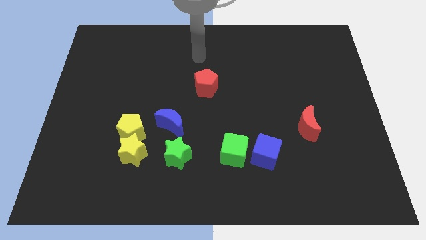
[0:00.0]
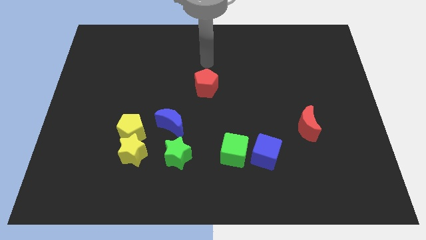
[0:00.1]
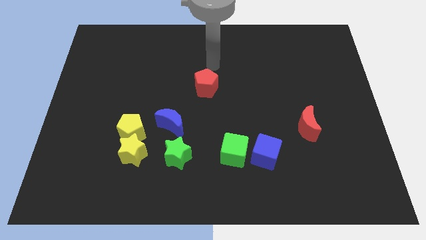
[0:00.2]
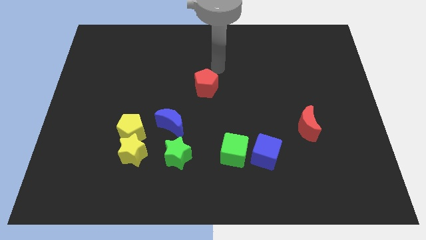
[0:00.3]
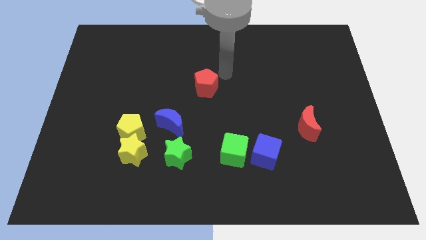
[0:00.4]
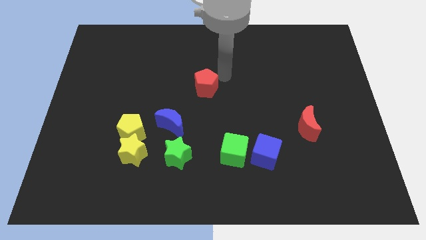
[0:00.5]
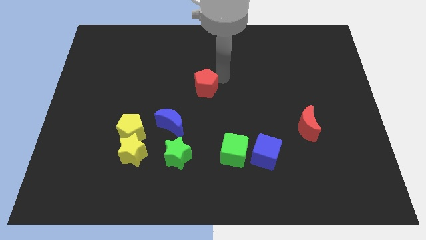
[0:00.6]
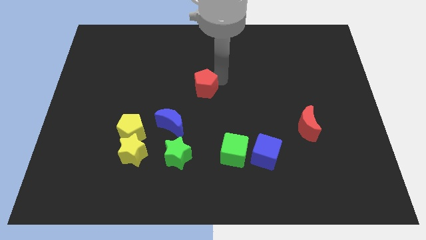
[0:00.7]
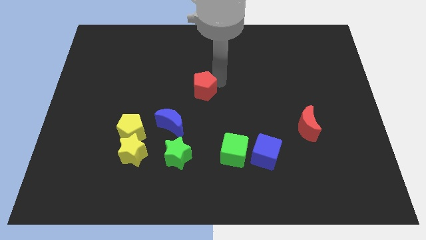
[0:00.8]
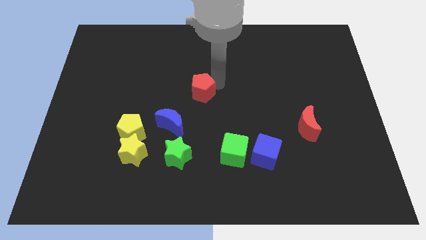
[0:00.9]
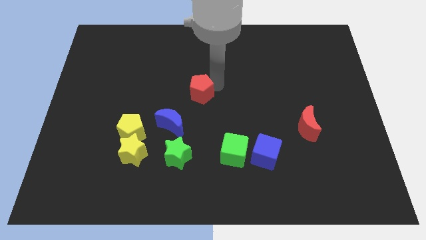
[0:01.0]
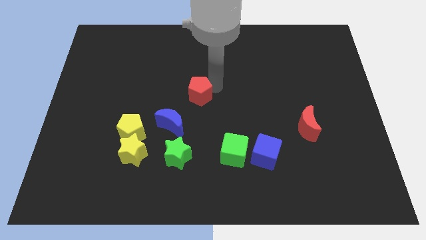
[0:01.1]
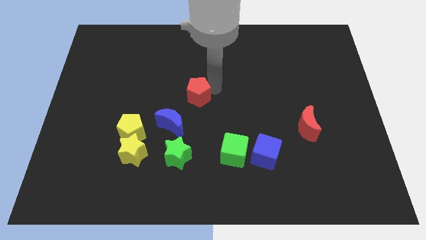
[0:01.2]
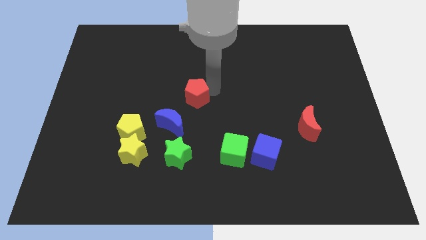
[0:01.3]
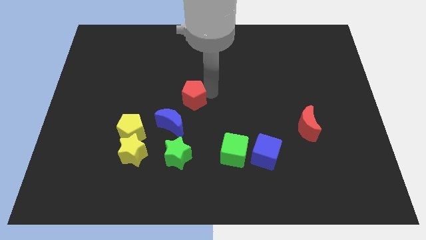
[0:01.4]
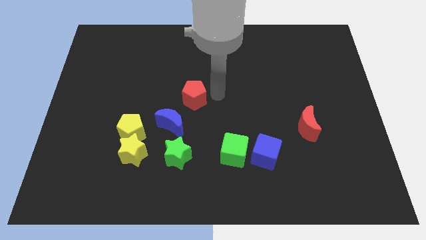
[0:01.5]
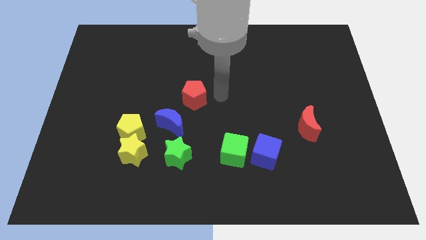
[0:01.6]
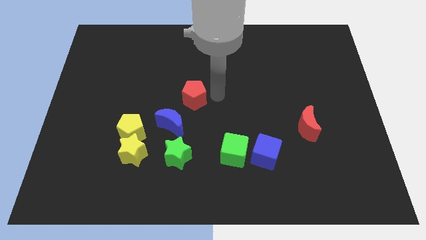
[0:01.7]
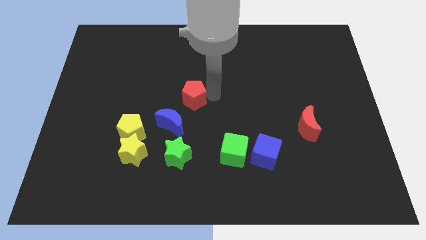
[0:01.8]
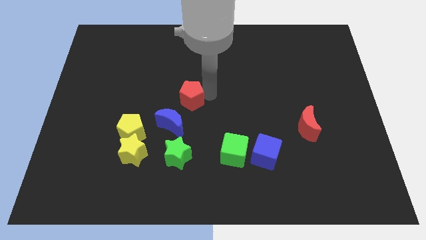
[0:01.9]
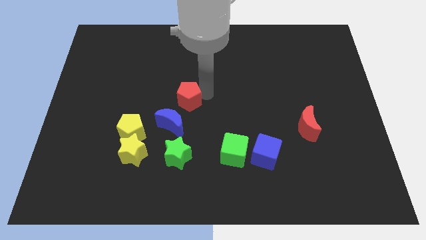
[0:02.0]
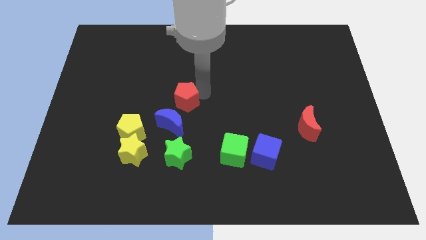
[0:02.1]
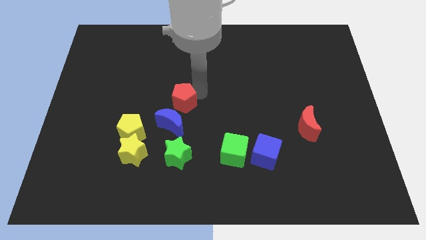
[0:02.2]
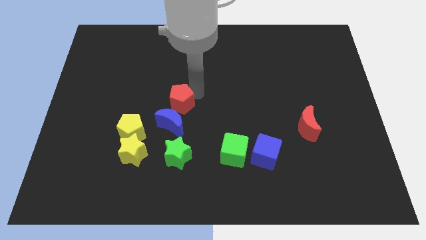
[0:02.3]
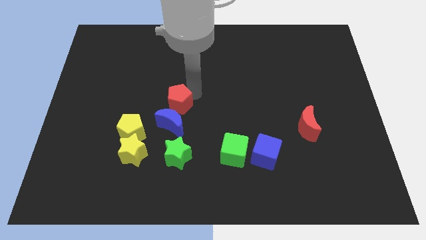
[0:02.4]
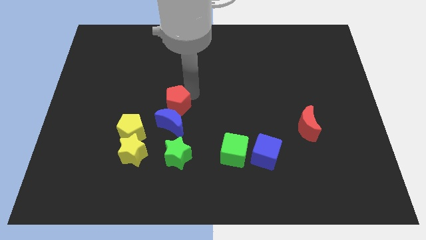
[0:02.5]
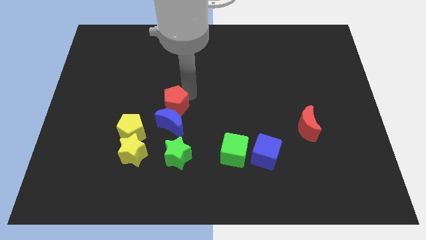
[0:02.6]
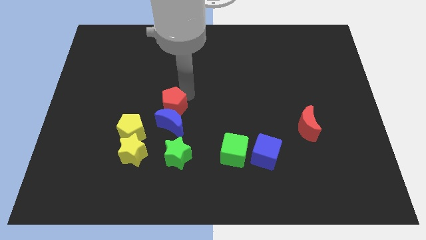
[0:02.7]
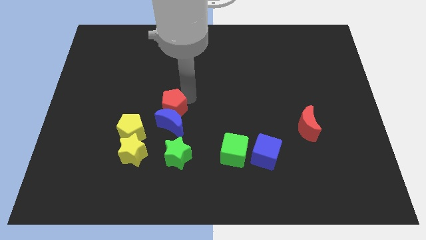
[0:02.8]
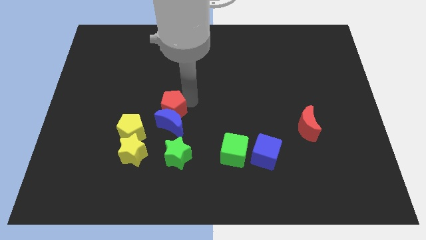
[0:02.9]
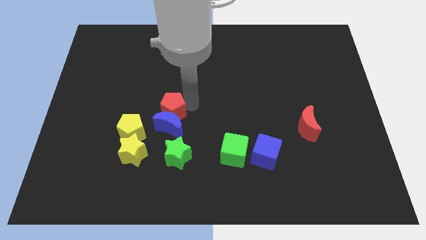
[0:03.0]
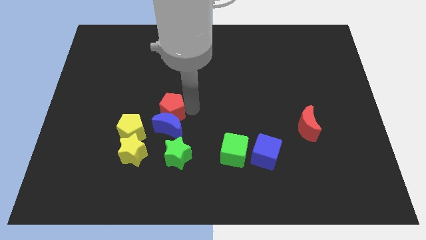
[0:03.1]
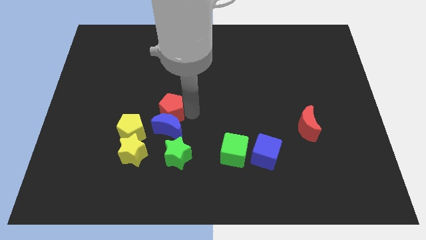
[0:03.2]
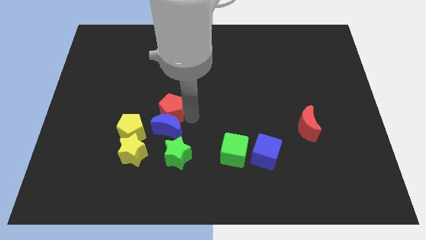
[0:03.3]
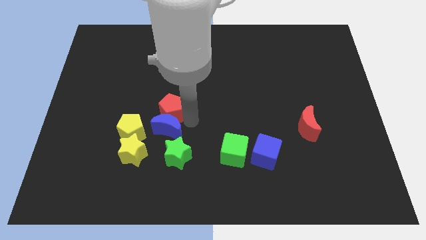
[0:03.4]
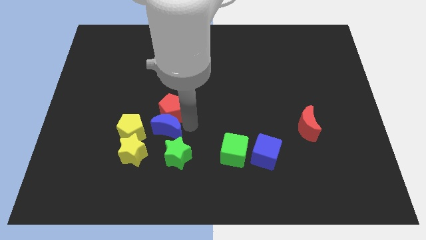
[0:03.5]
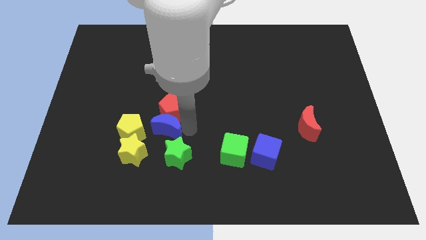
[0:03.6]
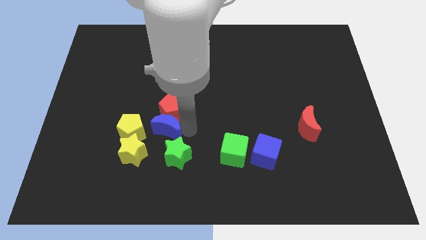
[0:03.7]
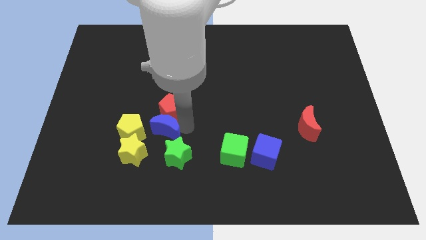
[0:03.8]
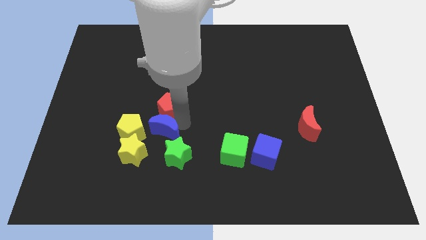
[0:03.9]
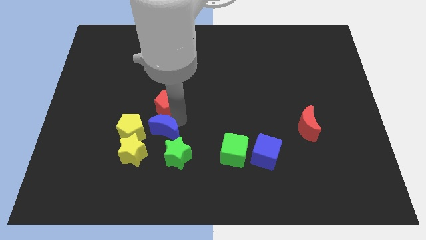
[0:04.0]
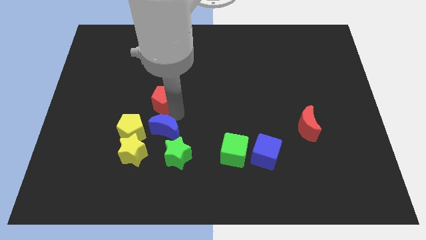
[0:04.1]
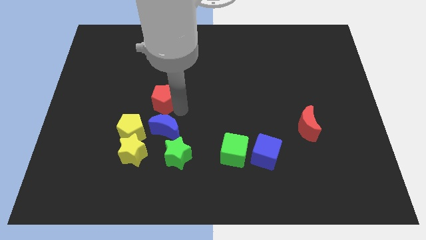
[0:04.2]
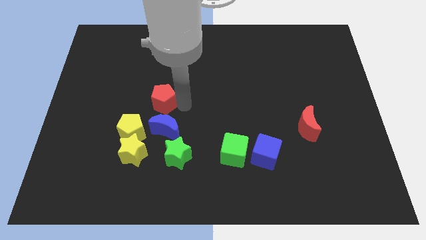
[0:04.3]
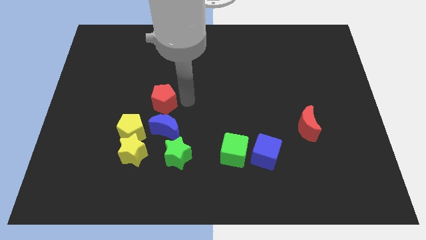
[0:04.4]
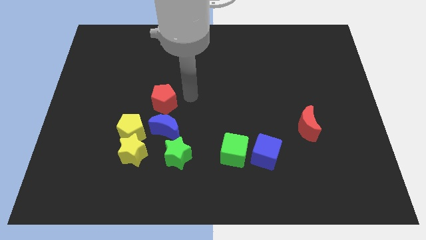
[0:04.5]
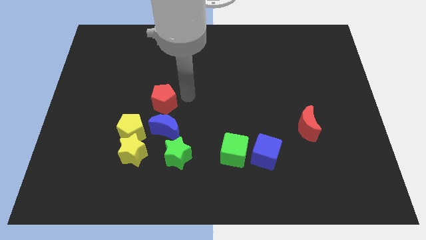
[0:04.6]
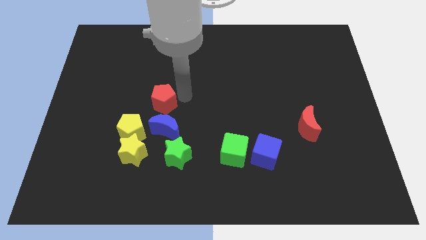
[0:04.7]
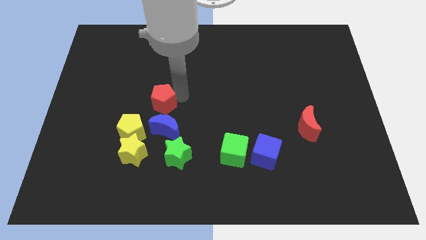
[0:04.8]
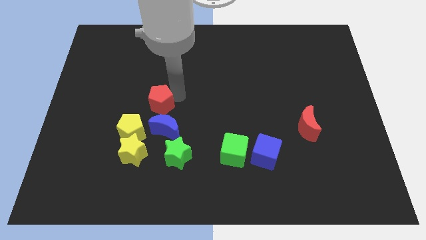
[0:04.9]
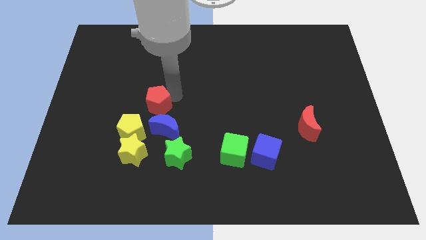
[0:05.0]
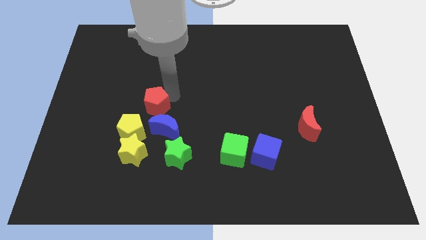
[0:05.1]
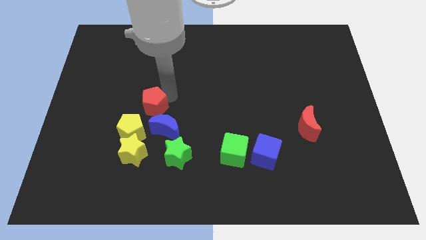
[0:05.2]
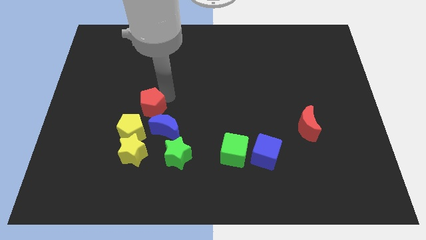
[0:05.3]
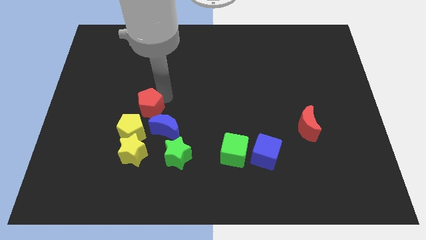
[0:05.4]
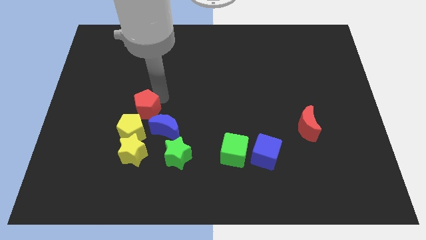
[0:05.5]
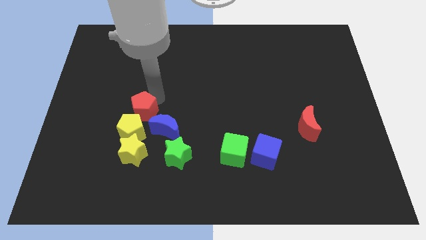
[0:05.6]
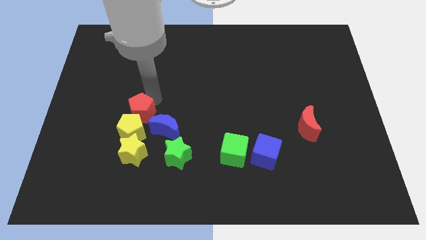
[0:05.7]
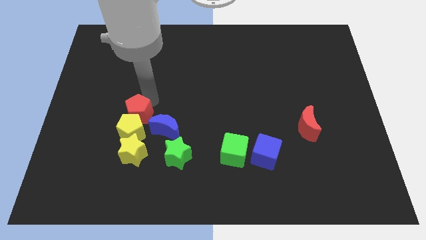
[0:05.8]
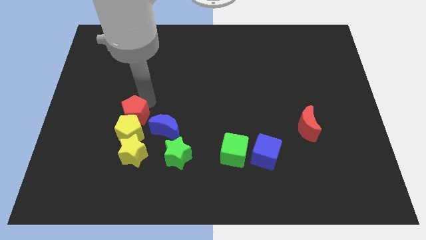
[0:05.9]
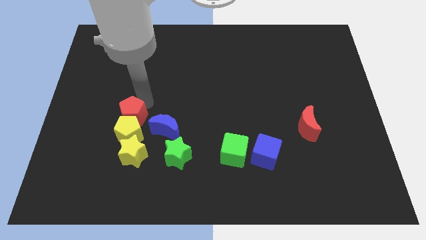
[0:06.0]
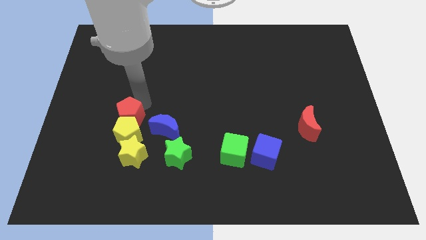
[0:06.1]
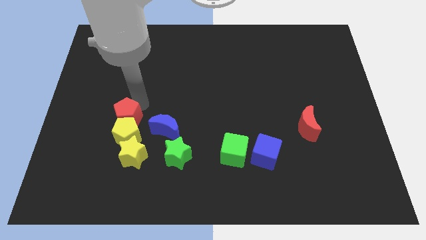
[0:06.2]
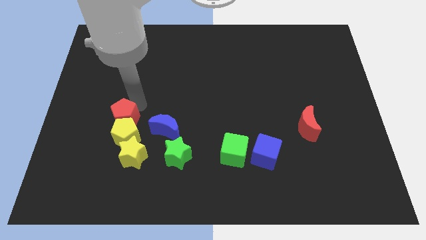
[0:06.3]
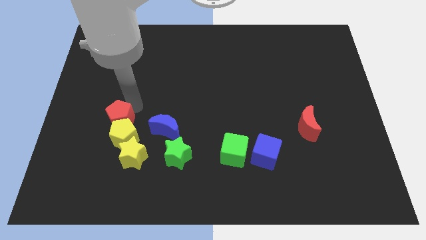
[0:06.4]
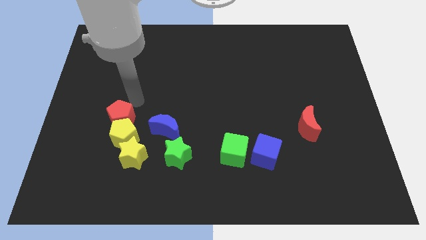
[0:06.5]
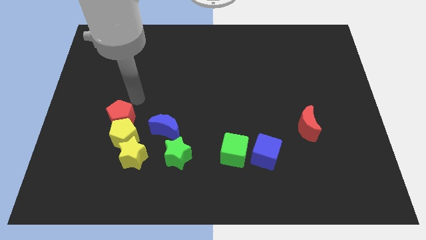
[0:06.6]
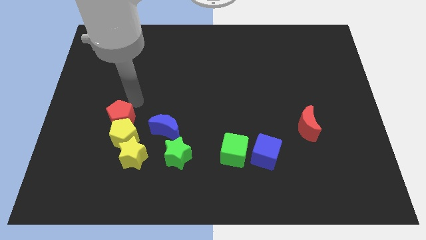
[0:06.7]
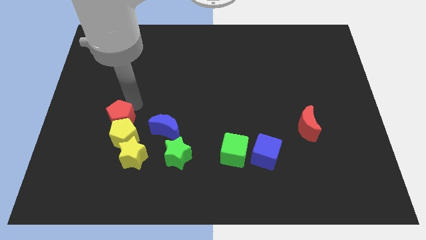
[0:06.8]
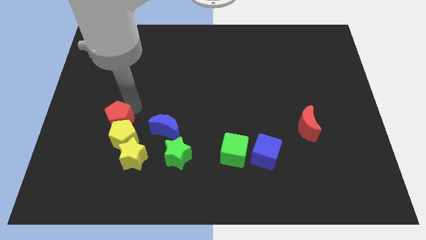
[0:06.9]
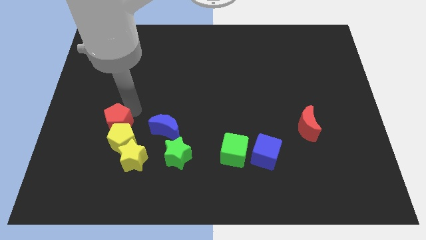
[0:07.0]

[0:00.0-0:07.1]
push the red pentagon downwards and then left

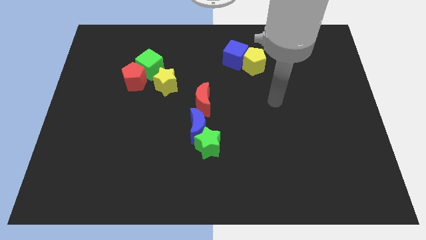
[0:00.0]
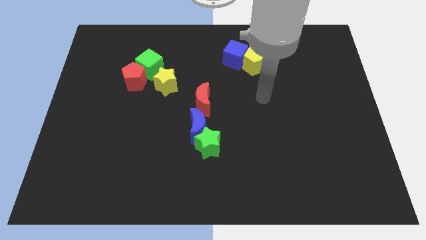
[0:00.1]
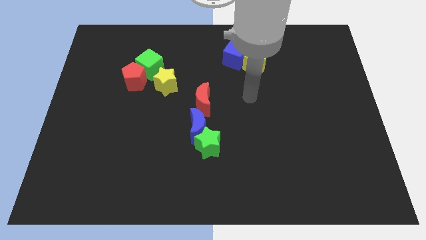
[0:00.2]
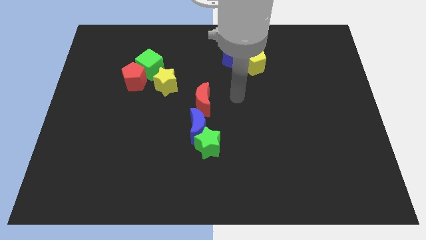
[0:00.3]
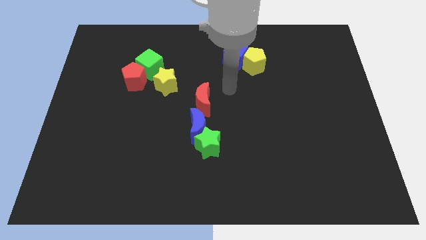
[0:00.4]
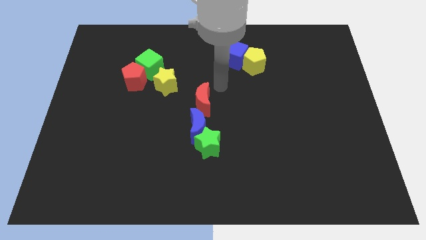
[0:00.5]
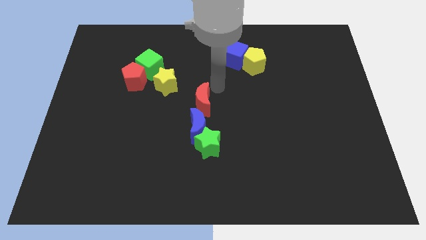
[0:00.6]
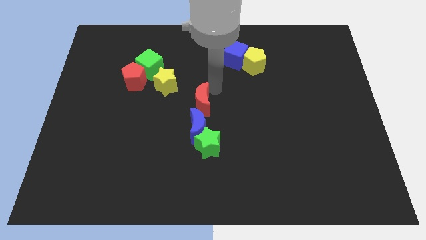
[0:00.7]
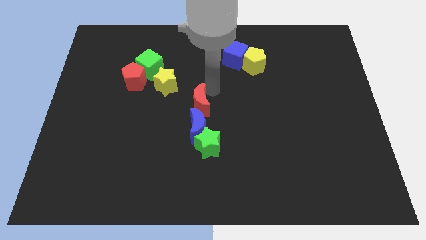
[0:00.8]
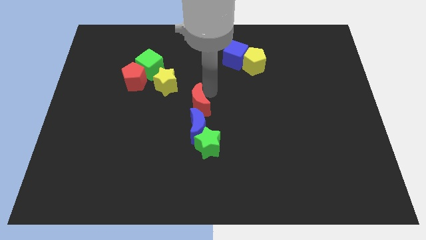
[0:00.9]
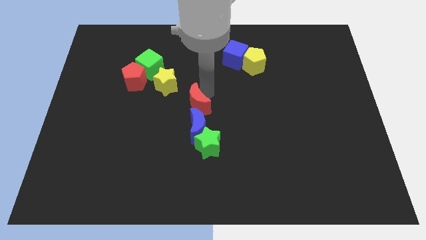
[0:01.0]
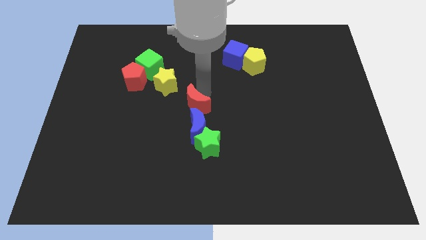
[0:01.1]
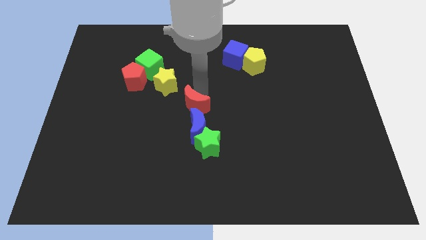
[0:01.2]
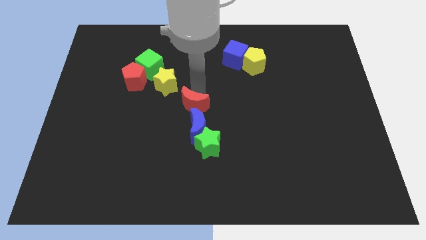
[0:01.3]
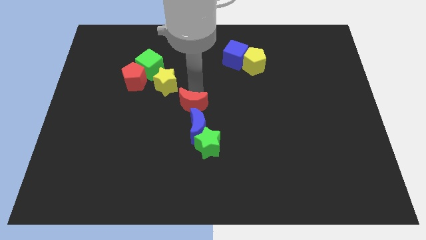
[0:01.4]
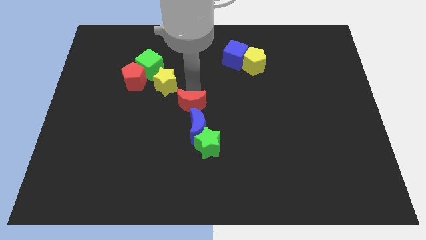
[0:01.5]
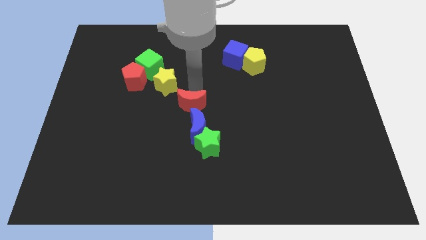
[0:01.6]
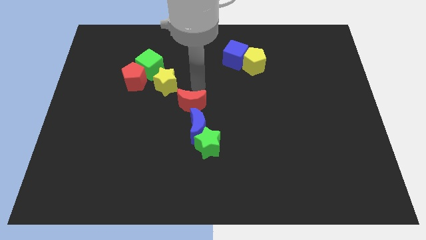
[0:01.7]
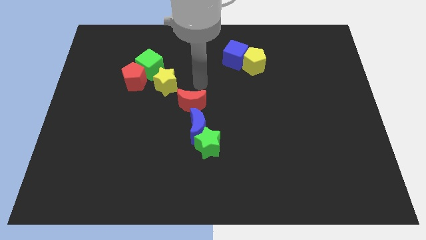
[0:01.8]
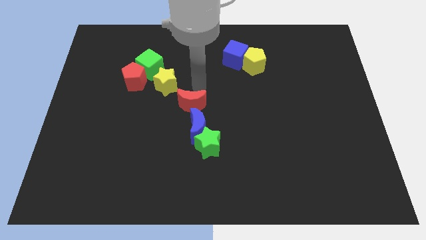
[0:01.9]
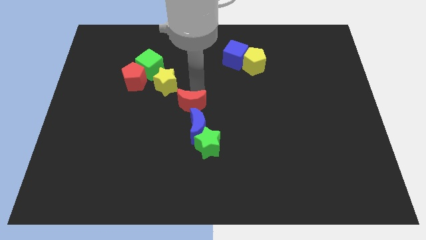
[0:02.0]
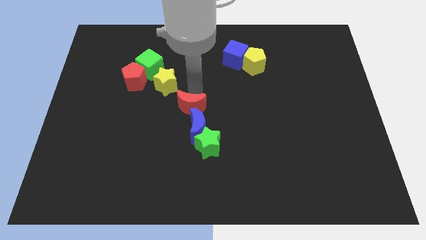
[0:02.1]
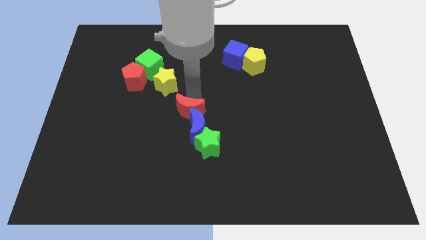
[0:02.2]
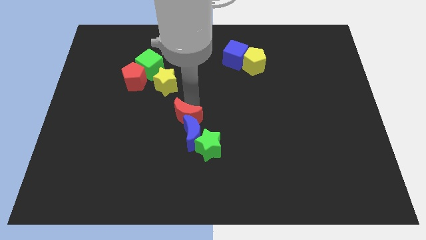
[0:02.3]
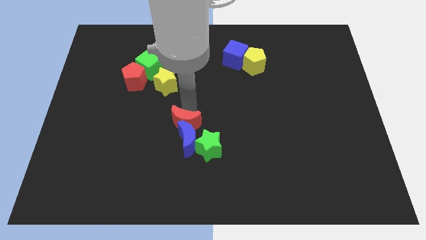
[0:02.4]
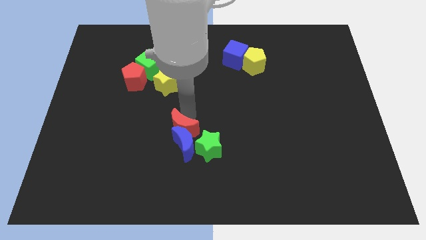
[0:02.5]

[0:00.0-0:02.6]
slide the red moon down a little bit
